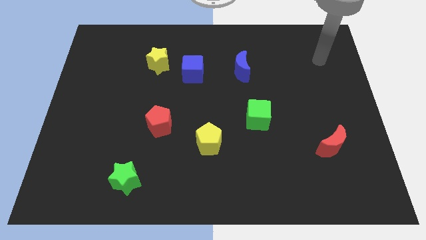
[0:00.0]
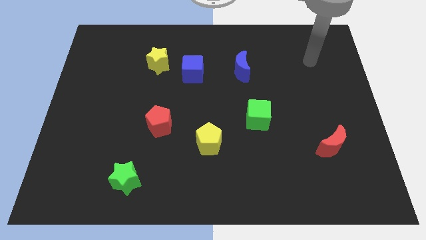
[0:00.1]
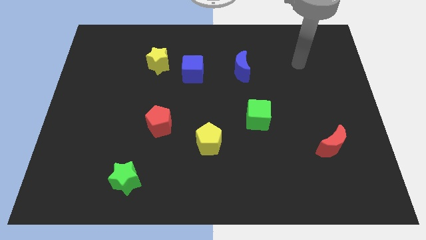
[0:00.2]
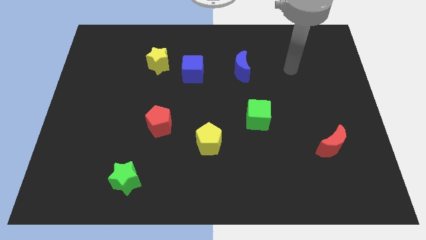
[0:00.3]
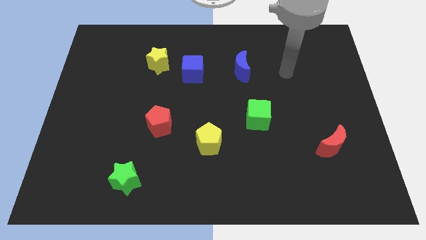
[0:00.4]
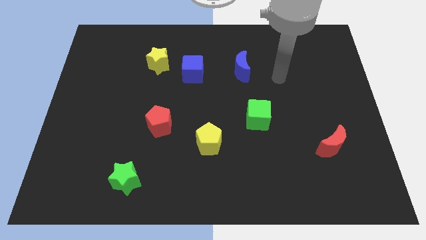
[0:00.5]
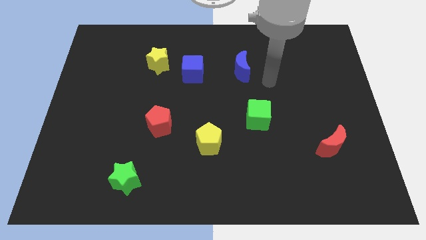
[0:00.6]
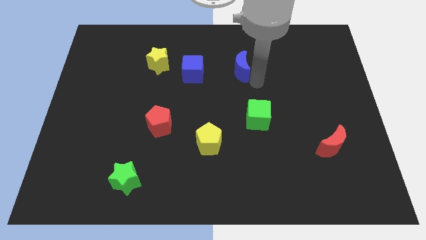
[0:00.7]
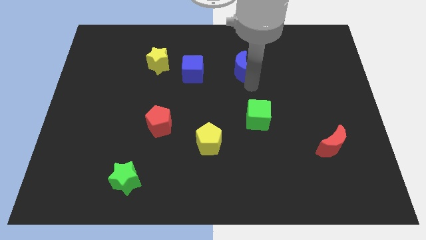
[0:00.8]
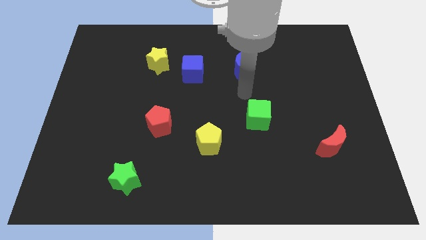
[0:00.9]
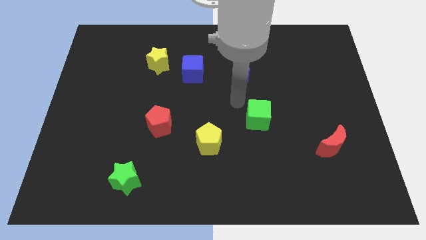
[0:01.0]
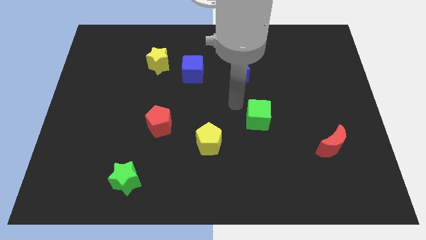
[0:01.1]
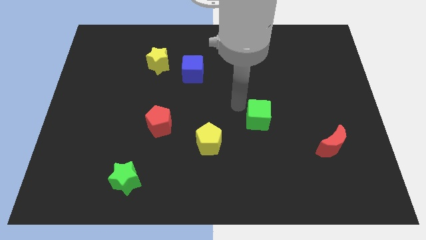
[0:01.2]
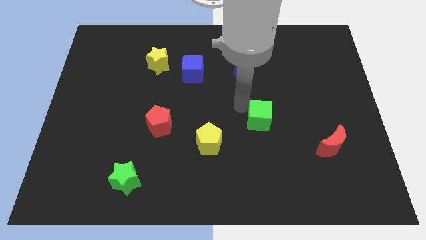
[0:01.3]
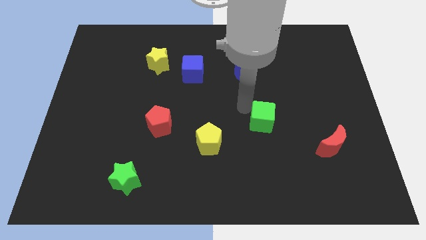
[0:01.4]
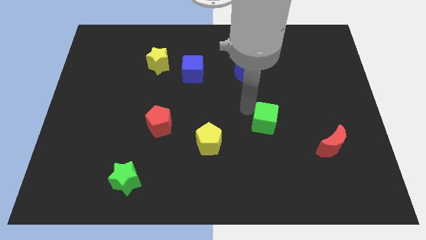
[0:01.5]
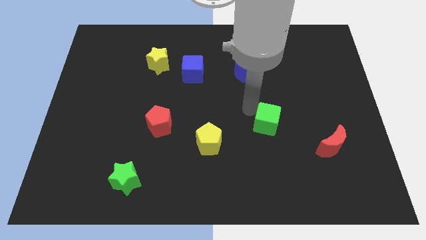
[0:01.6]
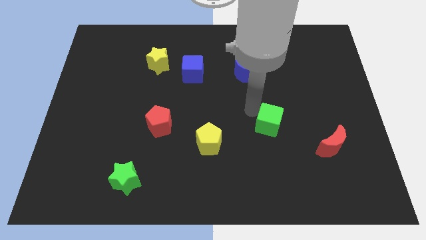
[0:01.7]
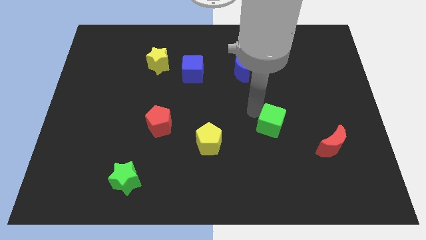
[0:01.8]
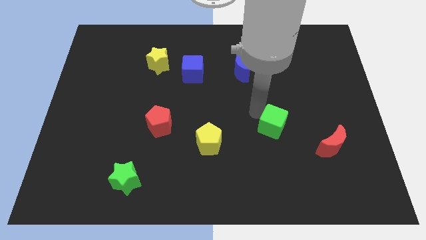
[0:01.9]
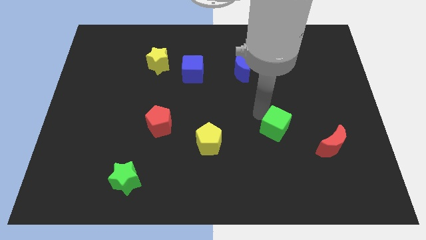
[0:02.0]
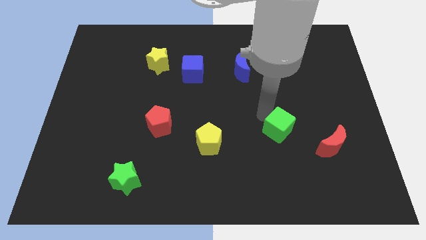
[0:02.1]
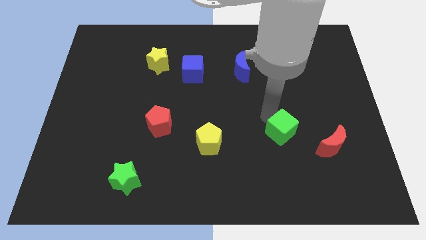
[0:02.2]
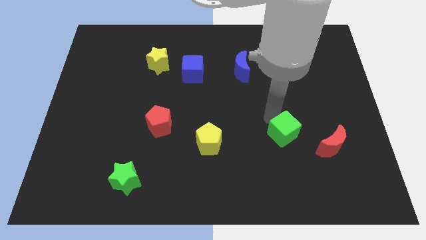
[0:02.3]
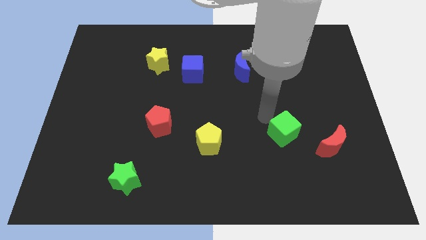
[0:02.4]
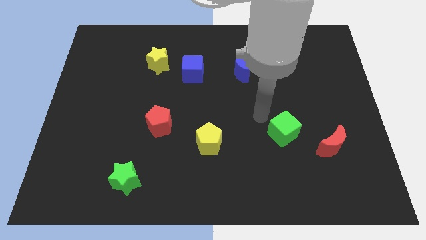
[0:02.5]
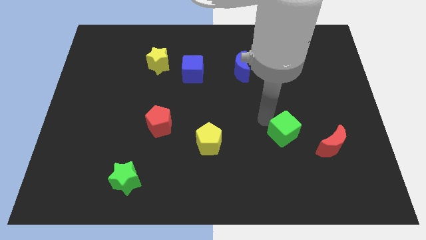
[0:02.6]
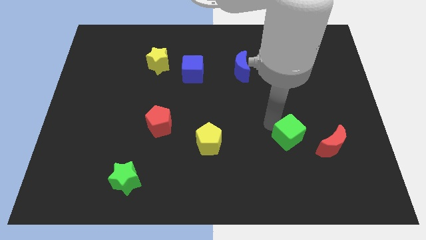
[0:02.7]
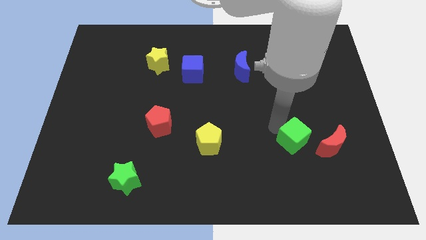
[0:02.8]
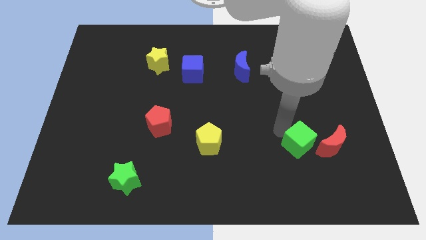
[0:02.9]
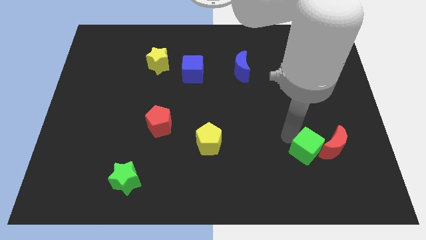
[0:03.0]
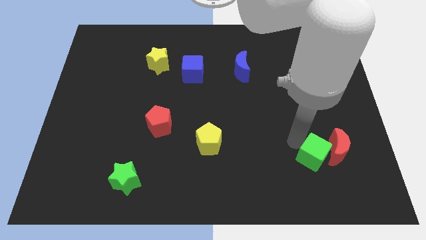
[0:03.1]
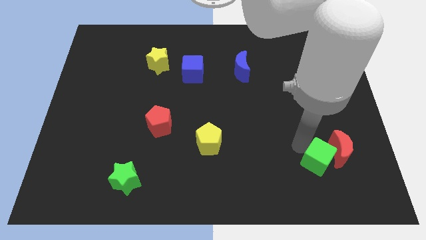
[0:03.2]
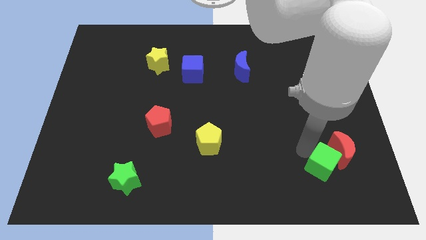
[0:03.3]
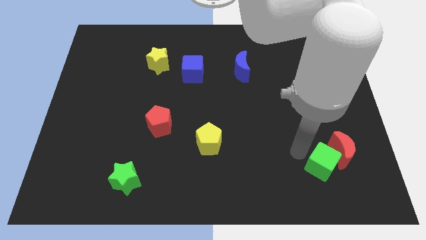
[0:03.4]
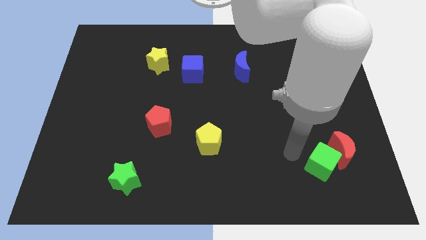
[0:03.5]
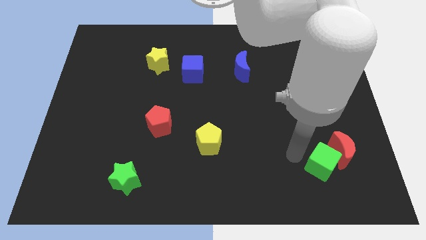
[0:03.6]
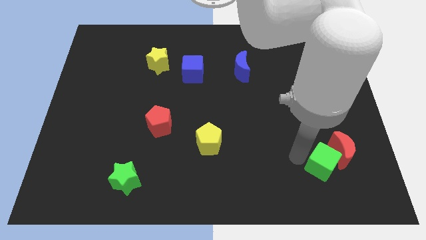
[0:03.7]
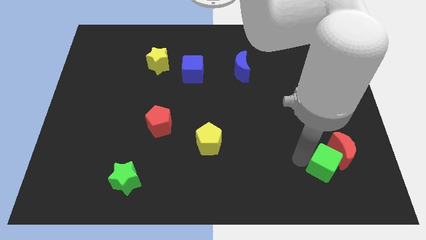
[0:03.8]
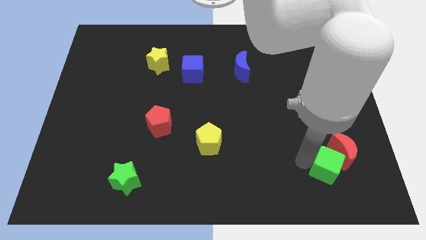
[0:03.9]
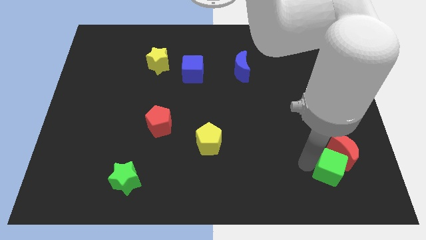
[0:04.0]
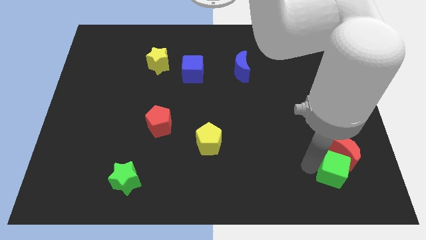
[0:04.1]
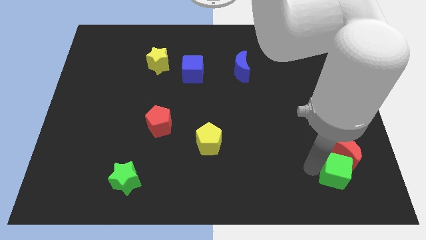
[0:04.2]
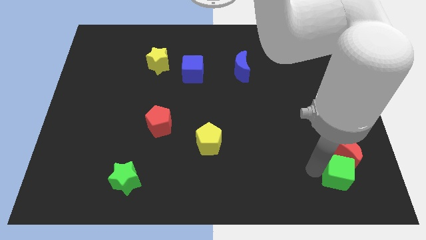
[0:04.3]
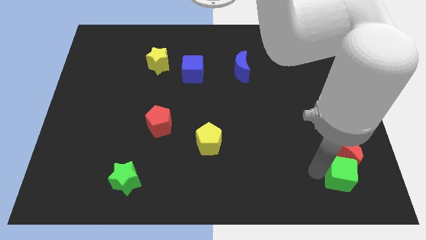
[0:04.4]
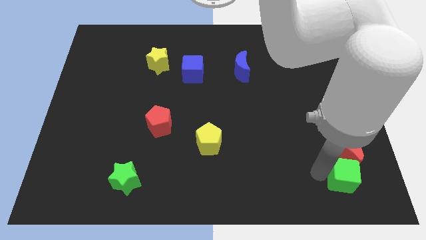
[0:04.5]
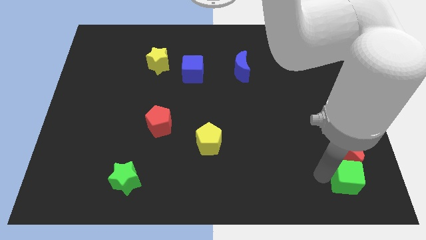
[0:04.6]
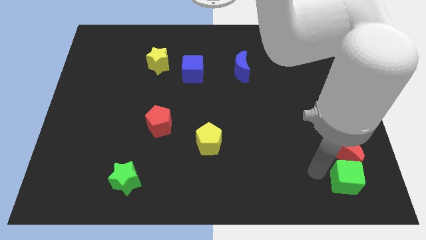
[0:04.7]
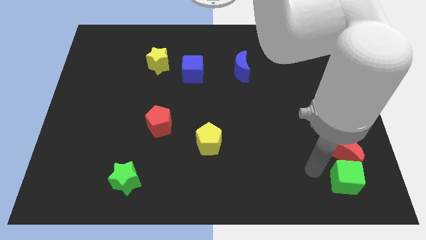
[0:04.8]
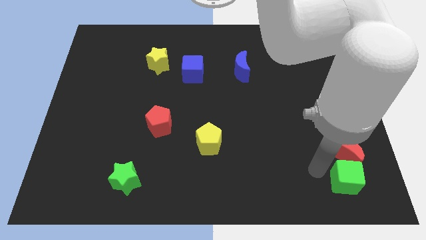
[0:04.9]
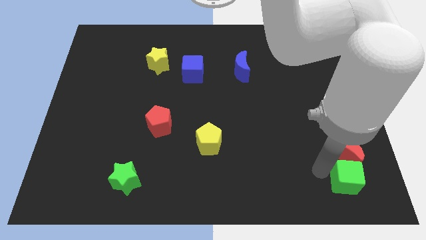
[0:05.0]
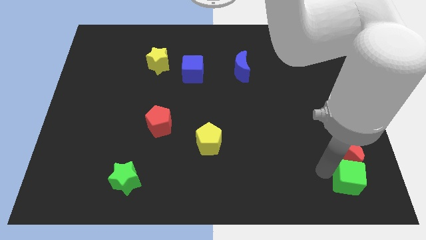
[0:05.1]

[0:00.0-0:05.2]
move the green cube to the bottom right corner

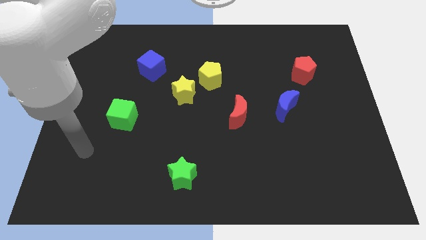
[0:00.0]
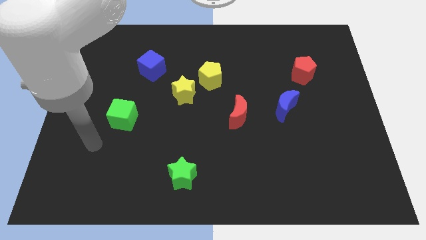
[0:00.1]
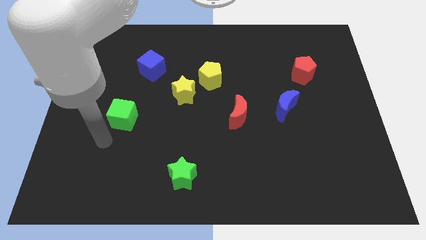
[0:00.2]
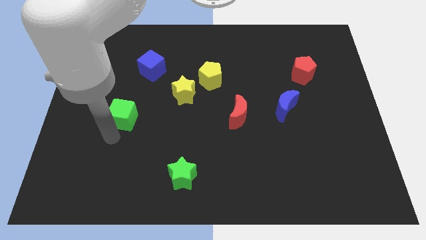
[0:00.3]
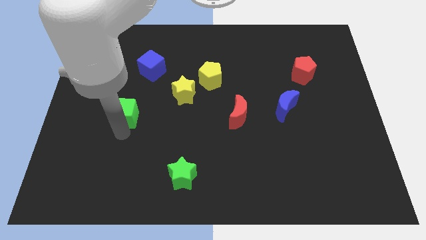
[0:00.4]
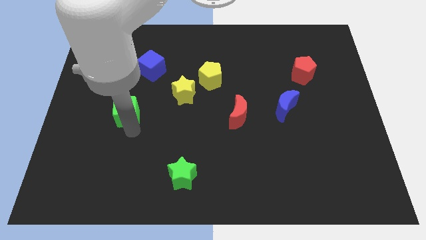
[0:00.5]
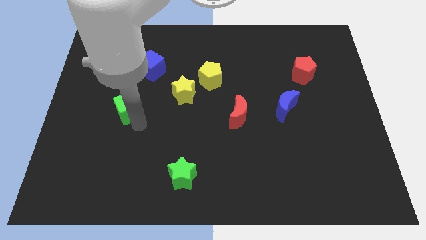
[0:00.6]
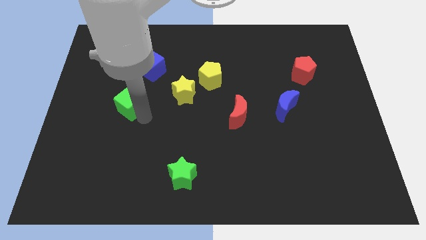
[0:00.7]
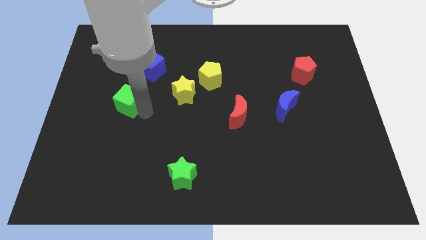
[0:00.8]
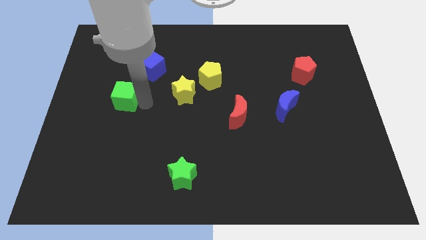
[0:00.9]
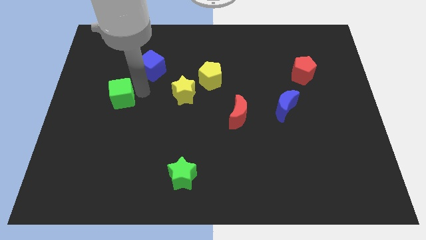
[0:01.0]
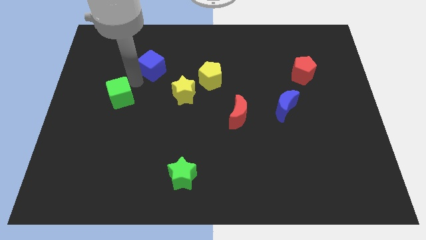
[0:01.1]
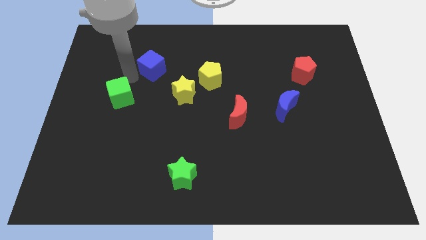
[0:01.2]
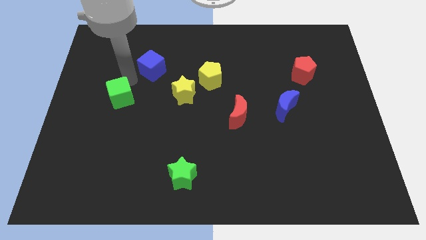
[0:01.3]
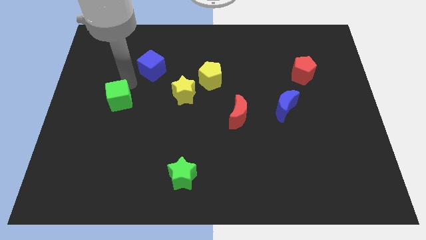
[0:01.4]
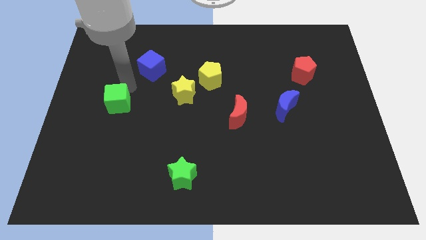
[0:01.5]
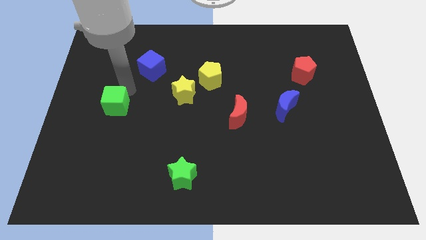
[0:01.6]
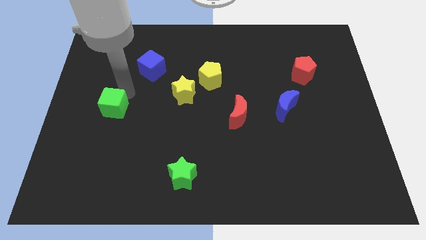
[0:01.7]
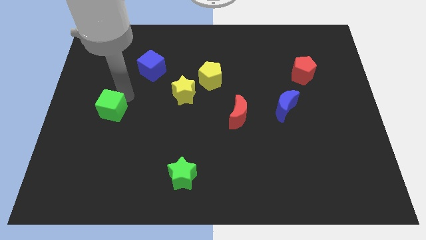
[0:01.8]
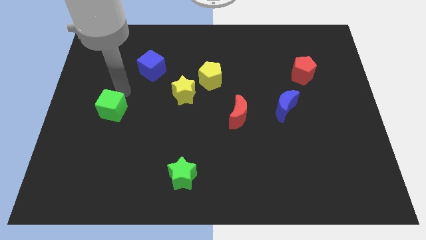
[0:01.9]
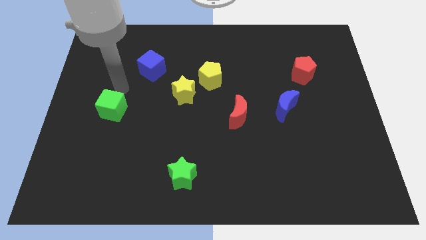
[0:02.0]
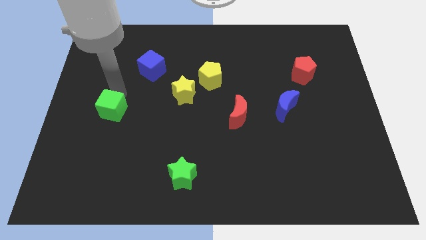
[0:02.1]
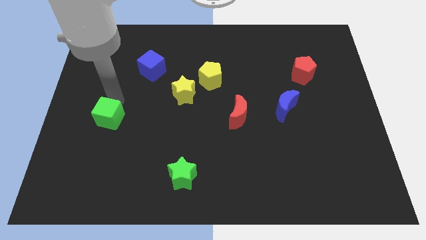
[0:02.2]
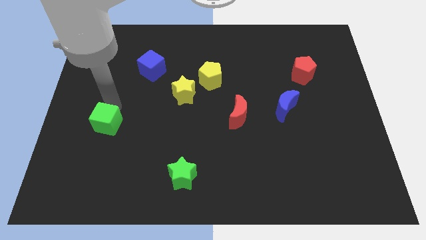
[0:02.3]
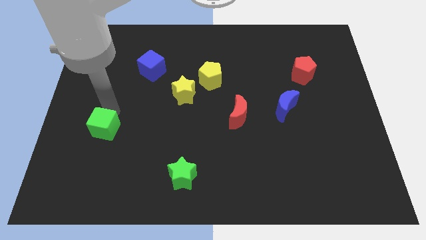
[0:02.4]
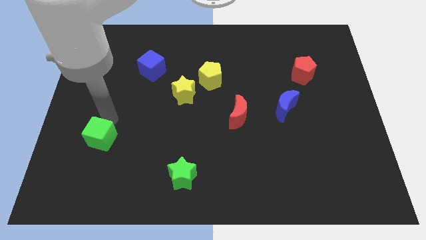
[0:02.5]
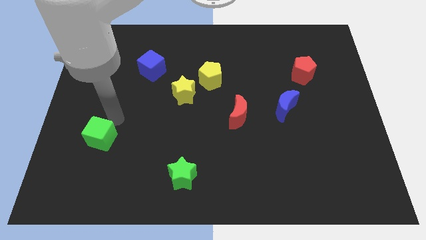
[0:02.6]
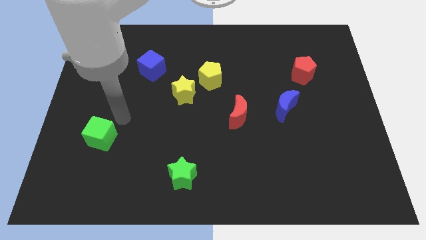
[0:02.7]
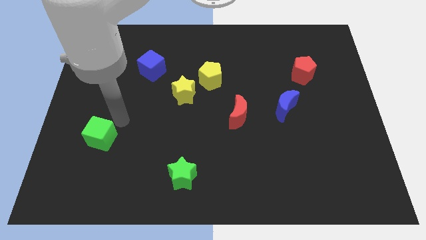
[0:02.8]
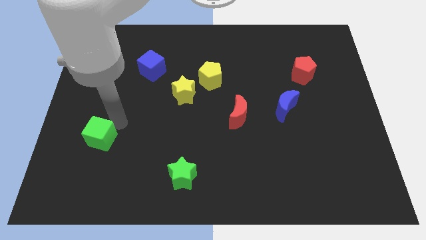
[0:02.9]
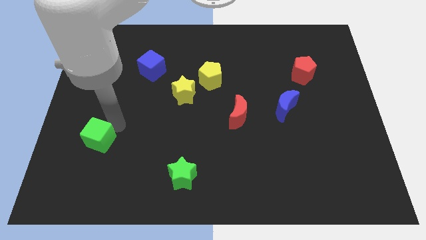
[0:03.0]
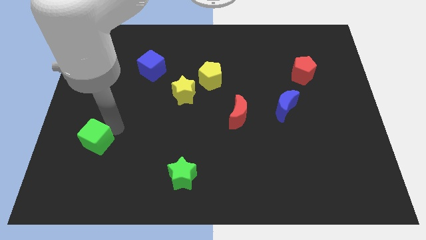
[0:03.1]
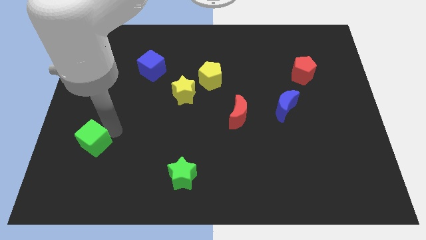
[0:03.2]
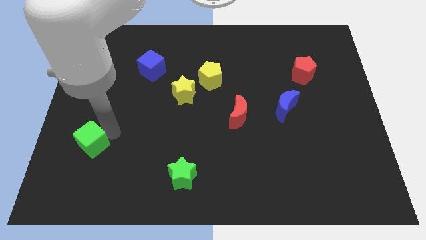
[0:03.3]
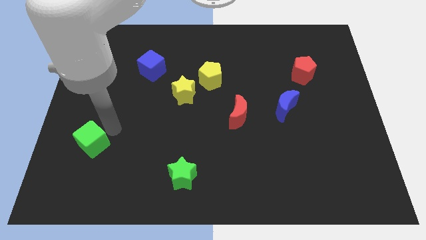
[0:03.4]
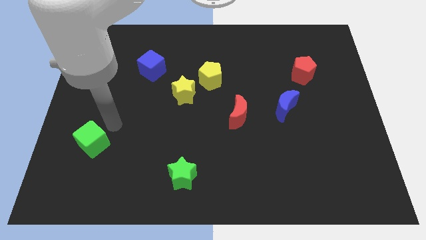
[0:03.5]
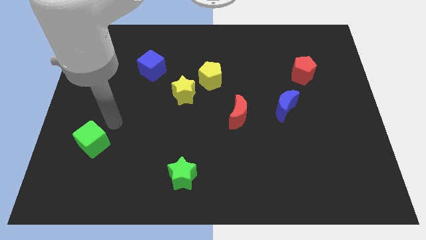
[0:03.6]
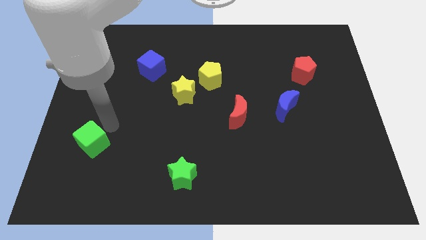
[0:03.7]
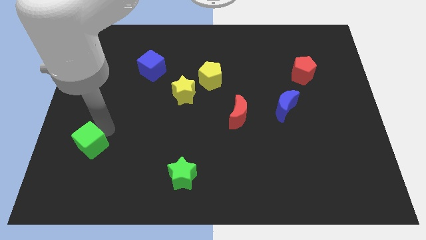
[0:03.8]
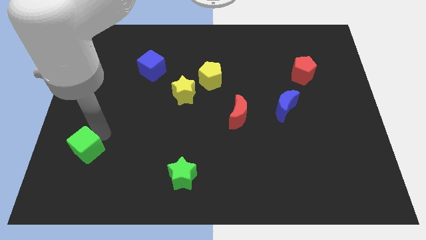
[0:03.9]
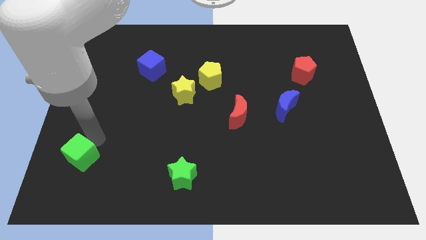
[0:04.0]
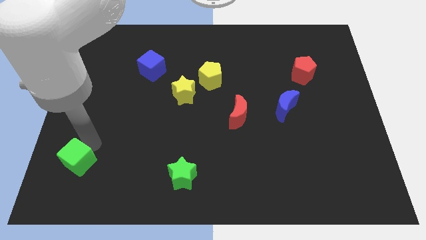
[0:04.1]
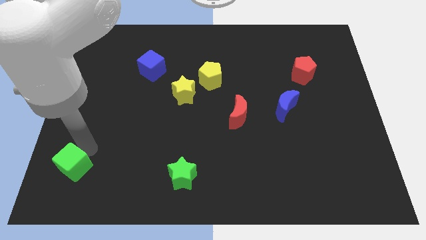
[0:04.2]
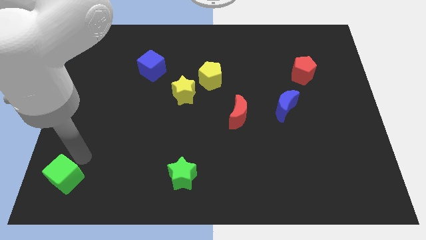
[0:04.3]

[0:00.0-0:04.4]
slide the green cube to the bottom left corner
